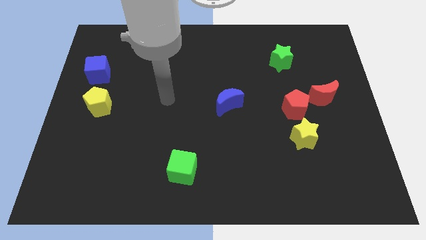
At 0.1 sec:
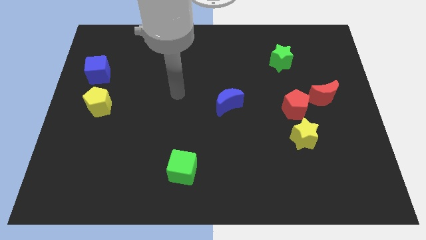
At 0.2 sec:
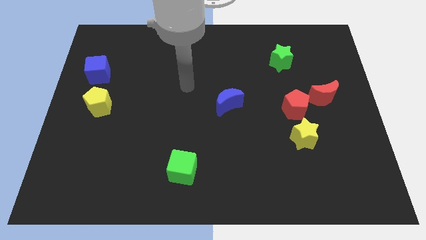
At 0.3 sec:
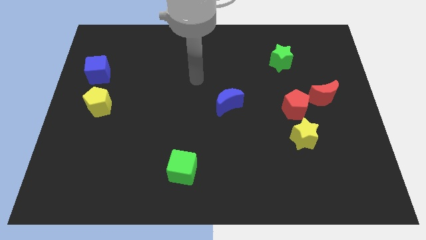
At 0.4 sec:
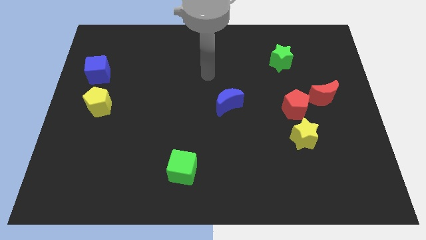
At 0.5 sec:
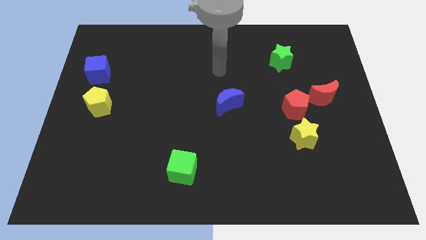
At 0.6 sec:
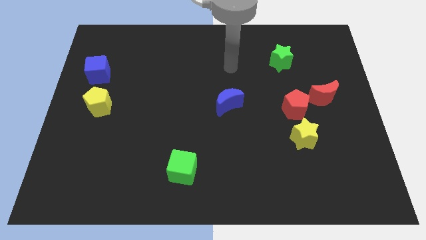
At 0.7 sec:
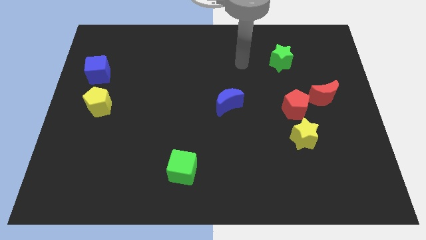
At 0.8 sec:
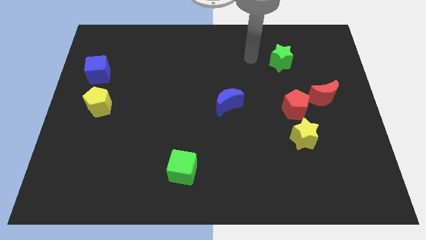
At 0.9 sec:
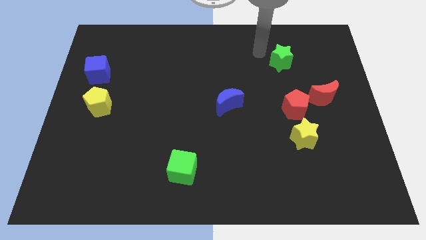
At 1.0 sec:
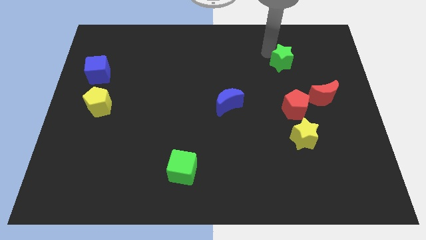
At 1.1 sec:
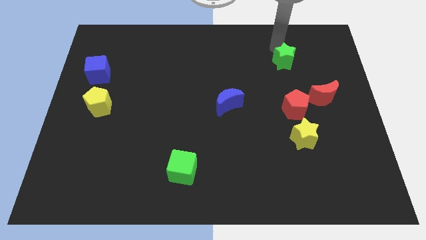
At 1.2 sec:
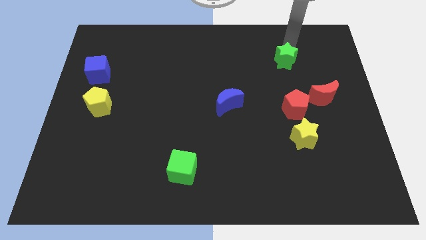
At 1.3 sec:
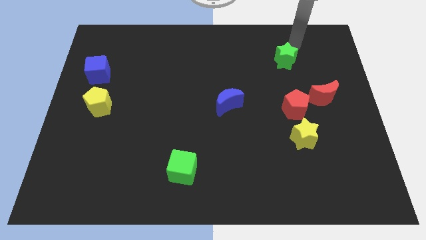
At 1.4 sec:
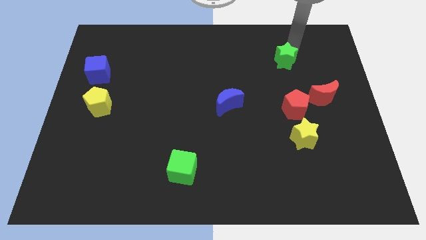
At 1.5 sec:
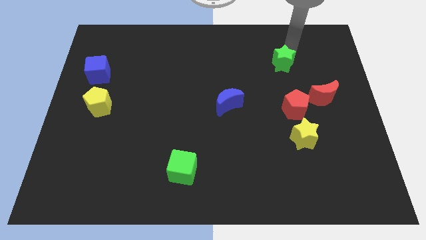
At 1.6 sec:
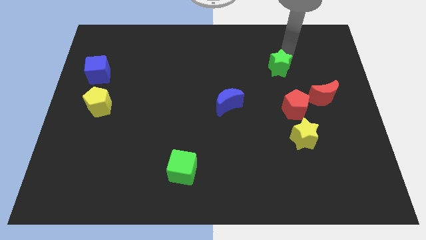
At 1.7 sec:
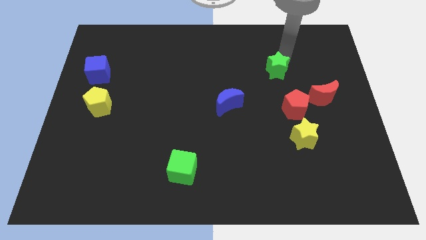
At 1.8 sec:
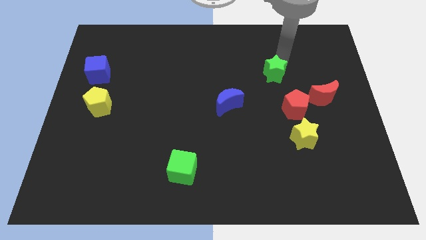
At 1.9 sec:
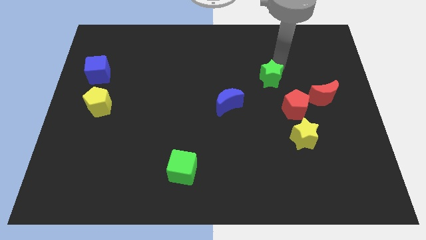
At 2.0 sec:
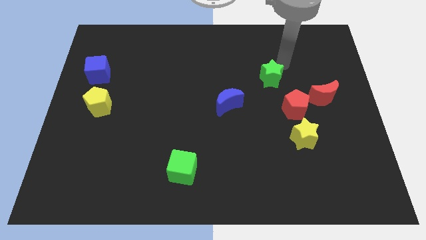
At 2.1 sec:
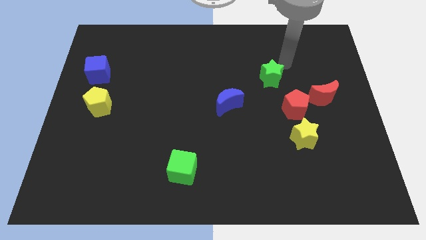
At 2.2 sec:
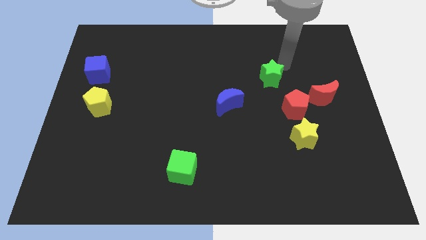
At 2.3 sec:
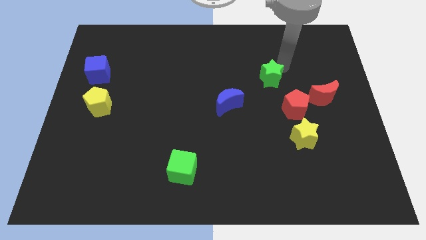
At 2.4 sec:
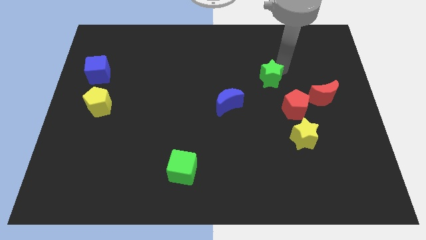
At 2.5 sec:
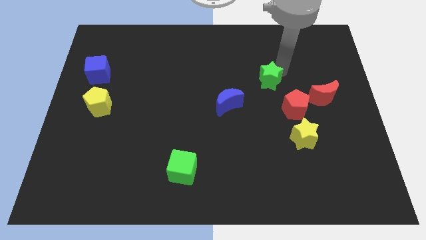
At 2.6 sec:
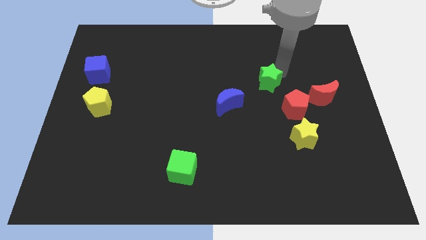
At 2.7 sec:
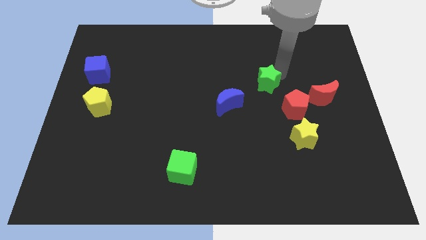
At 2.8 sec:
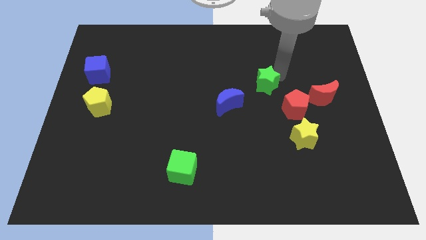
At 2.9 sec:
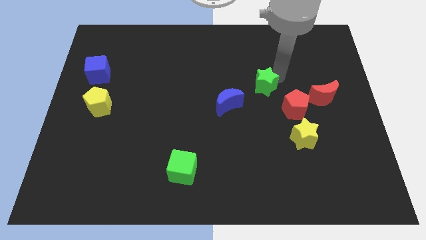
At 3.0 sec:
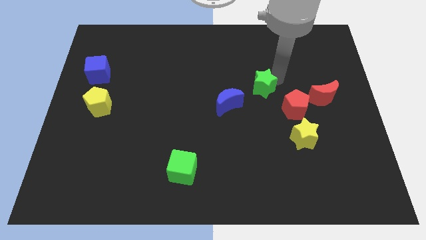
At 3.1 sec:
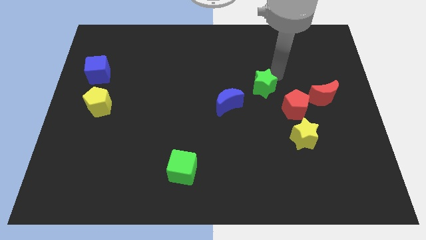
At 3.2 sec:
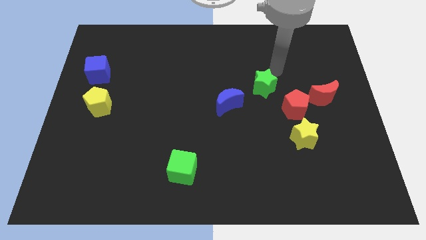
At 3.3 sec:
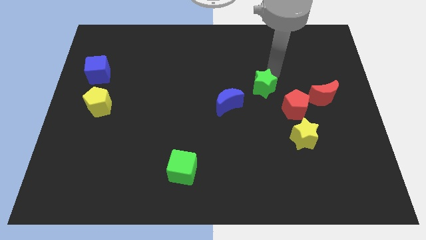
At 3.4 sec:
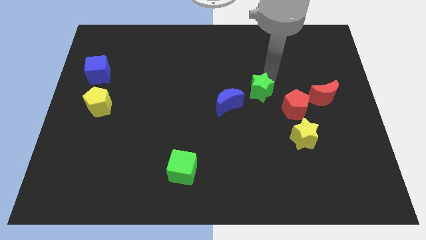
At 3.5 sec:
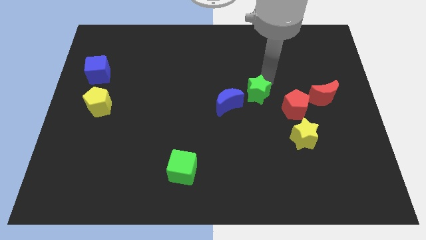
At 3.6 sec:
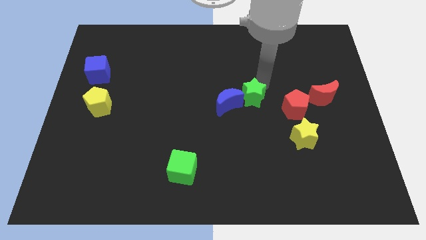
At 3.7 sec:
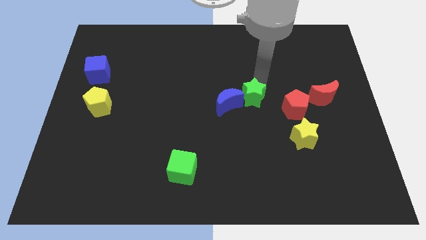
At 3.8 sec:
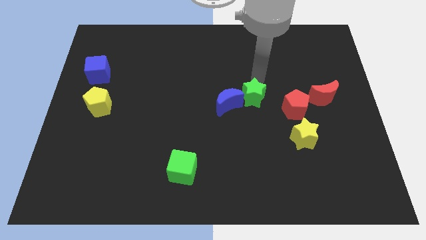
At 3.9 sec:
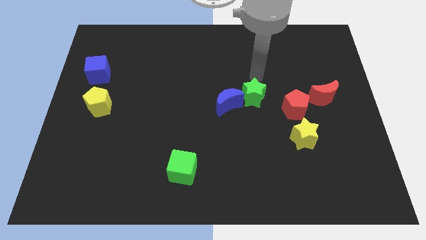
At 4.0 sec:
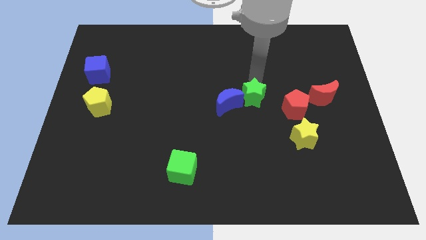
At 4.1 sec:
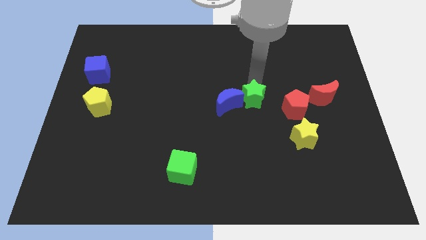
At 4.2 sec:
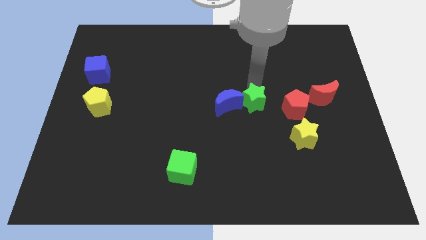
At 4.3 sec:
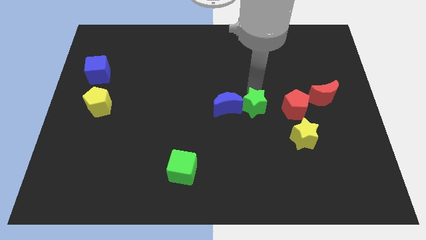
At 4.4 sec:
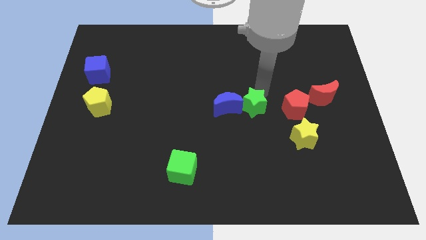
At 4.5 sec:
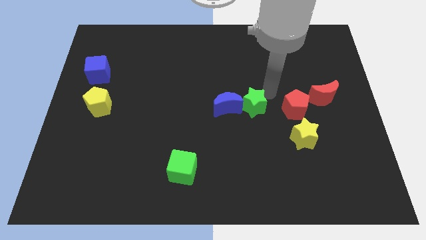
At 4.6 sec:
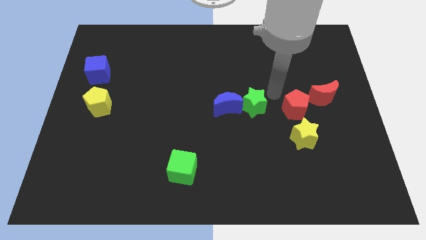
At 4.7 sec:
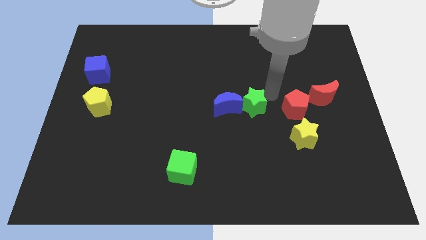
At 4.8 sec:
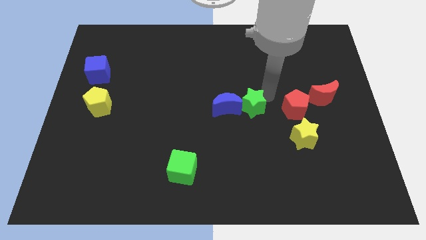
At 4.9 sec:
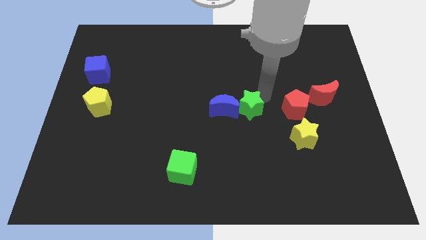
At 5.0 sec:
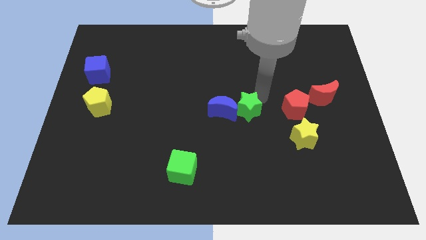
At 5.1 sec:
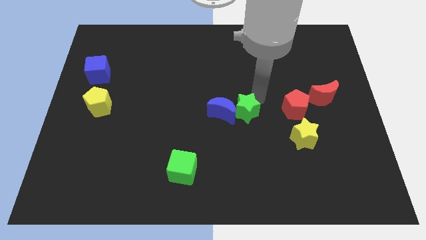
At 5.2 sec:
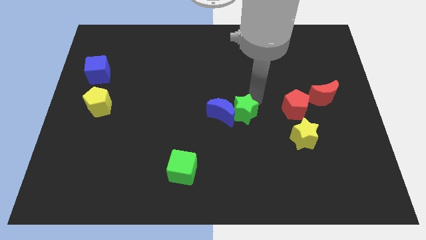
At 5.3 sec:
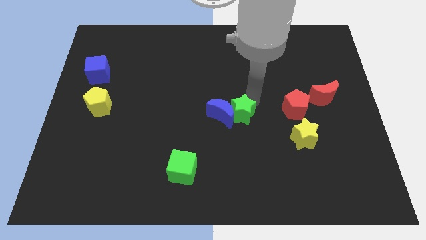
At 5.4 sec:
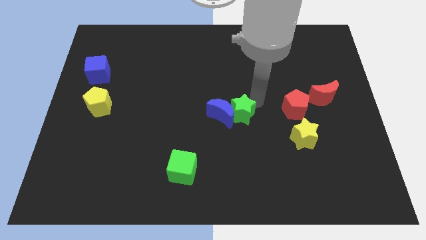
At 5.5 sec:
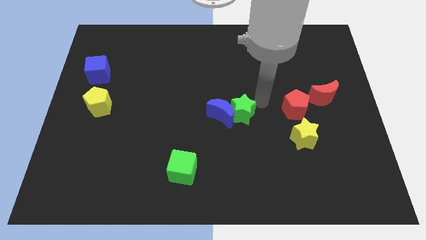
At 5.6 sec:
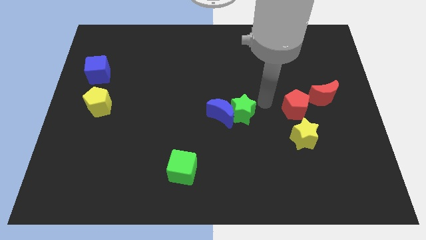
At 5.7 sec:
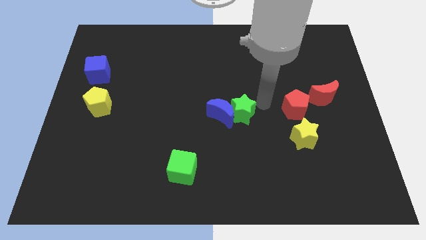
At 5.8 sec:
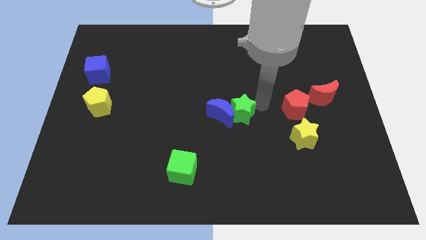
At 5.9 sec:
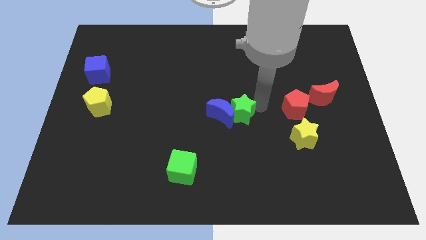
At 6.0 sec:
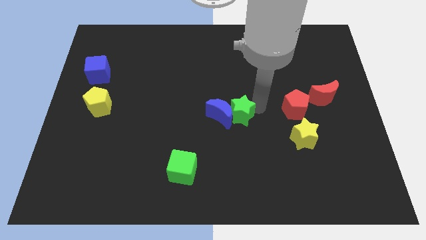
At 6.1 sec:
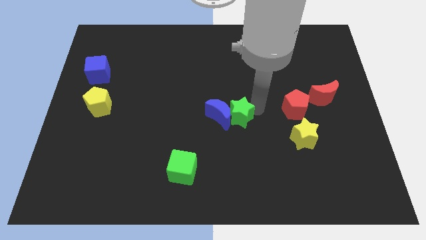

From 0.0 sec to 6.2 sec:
push the green star downwards and left diagonally

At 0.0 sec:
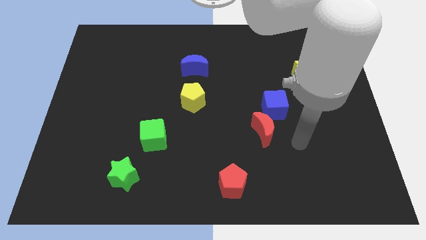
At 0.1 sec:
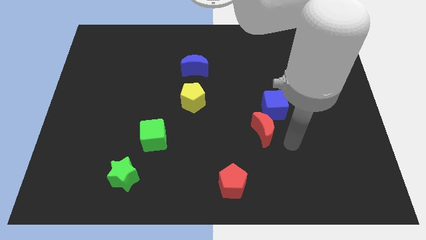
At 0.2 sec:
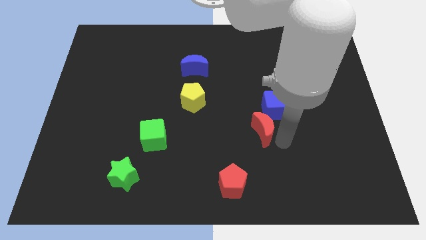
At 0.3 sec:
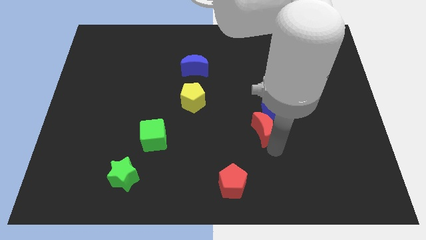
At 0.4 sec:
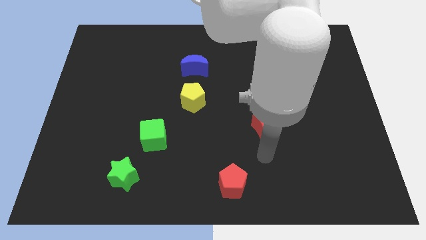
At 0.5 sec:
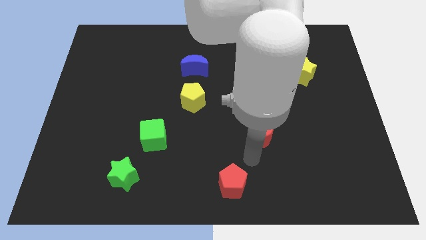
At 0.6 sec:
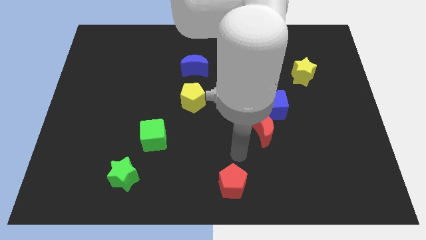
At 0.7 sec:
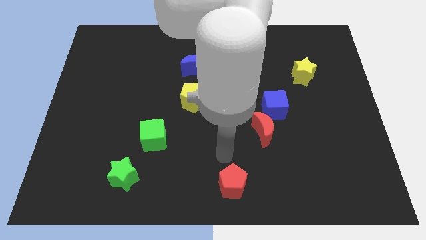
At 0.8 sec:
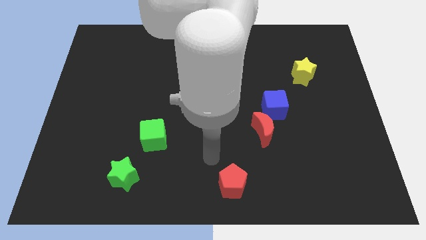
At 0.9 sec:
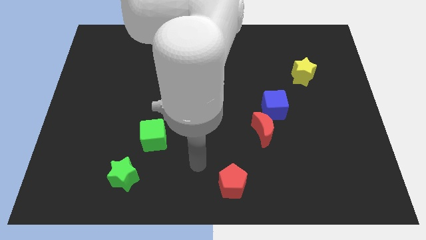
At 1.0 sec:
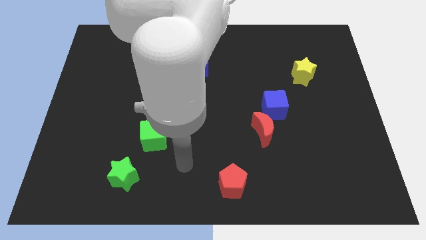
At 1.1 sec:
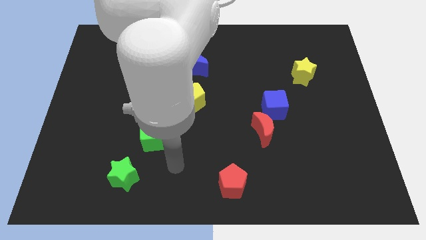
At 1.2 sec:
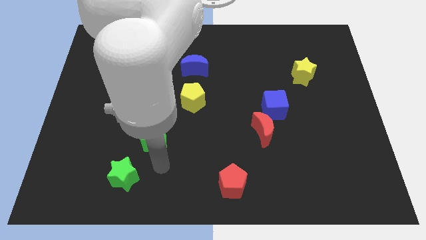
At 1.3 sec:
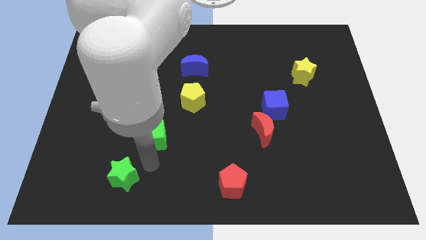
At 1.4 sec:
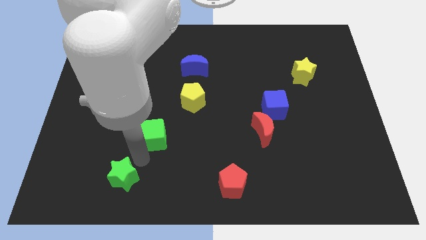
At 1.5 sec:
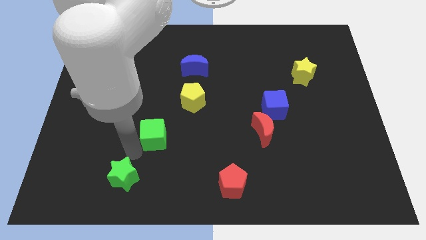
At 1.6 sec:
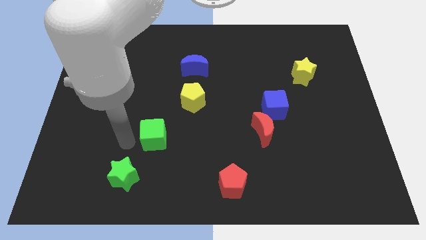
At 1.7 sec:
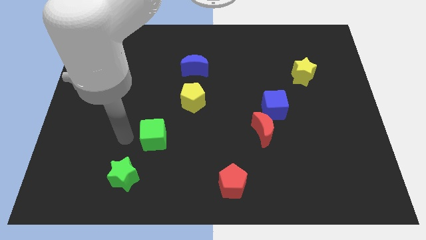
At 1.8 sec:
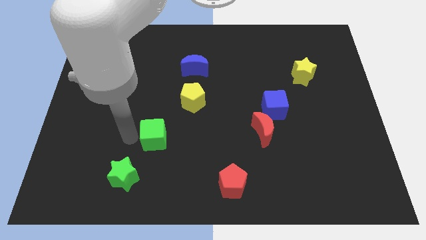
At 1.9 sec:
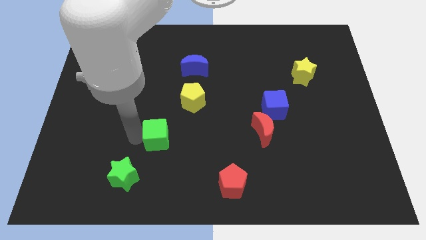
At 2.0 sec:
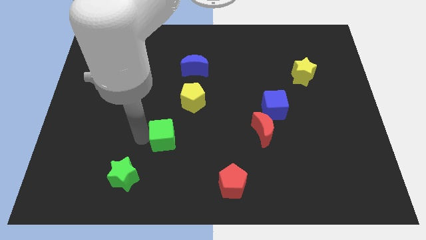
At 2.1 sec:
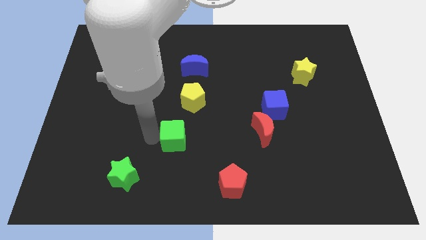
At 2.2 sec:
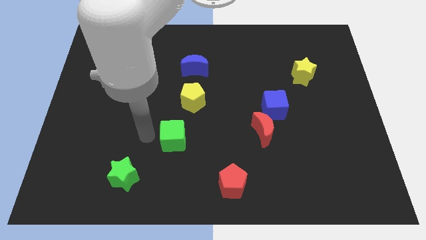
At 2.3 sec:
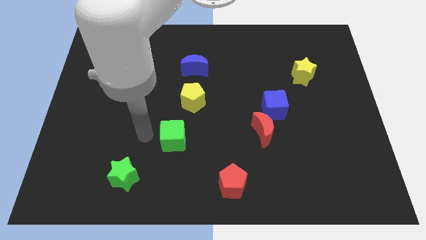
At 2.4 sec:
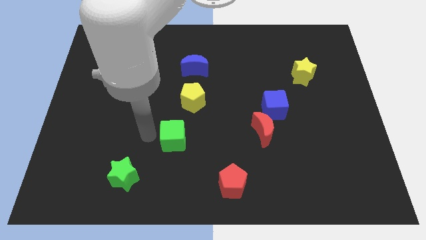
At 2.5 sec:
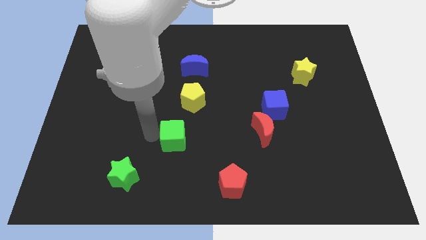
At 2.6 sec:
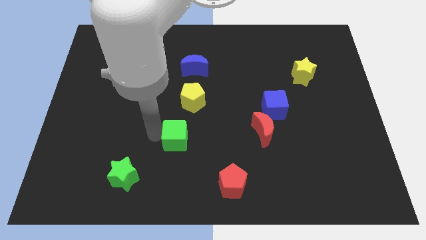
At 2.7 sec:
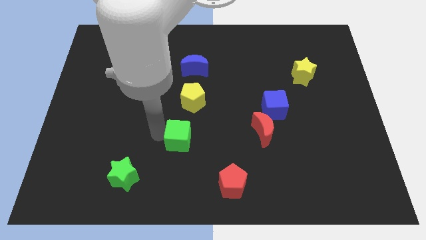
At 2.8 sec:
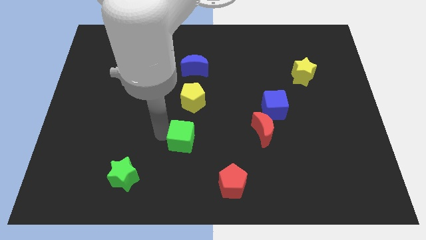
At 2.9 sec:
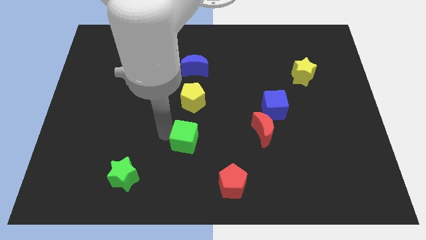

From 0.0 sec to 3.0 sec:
move the green cube a bit right
